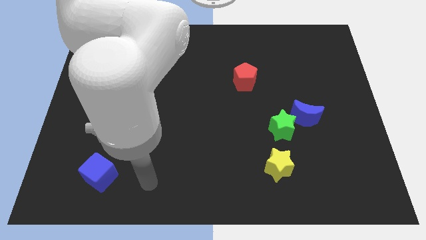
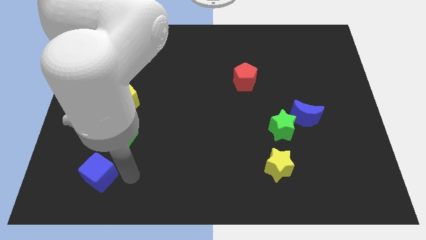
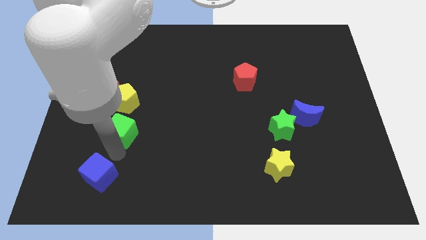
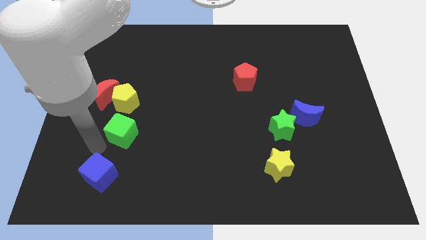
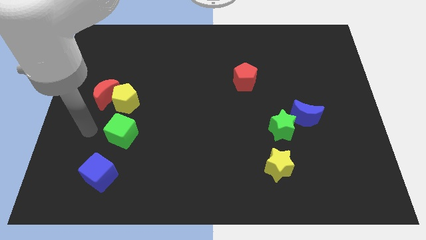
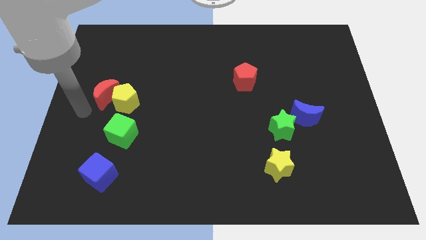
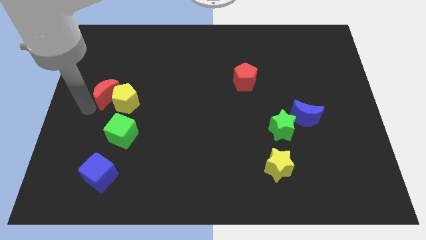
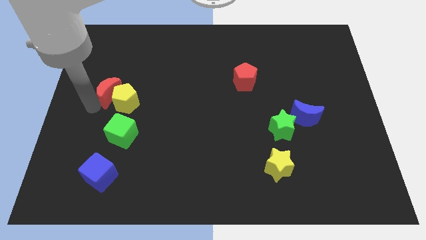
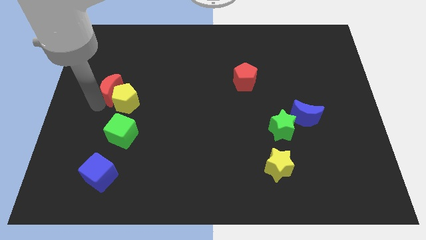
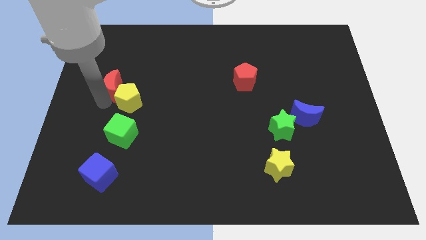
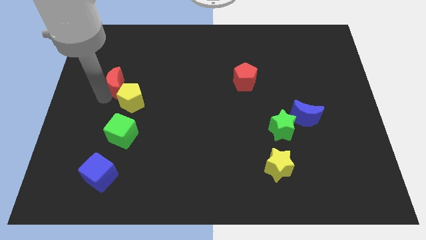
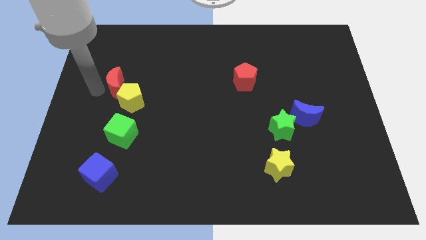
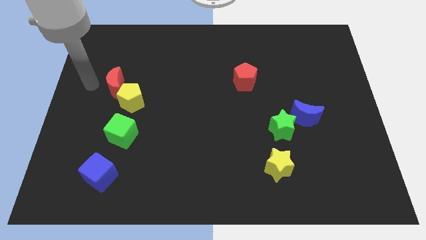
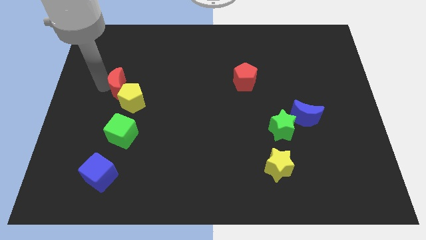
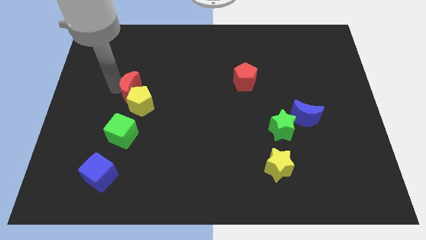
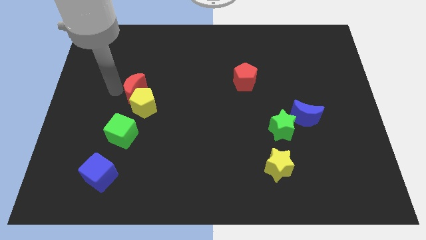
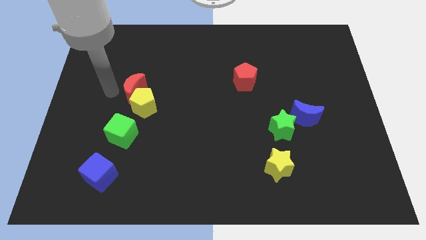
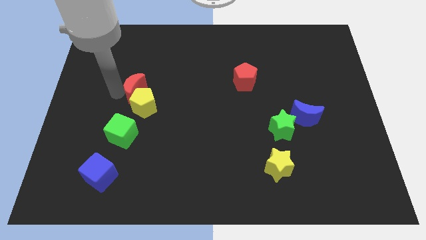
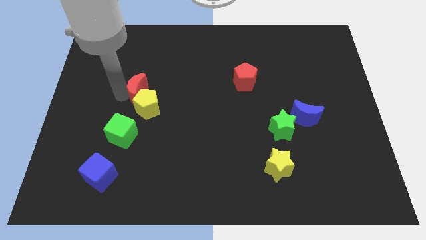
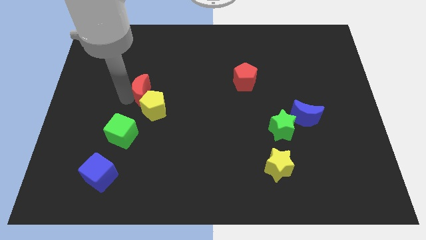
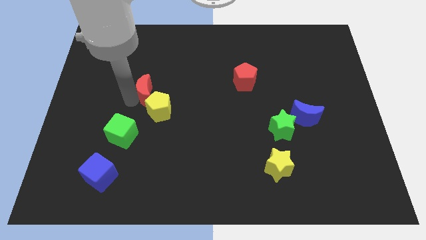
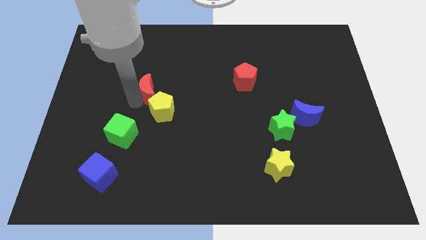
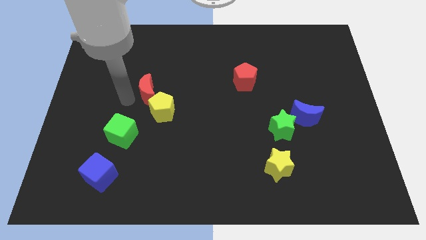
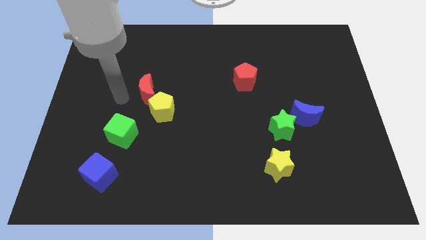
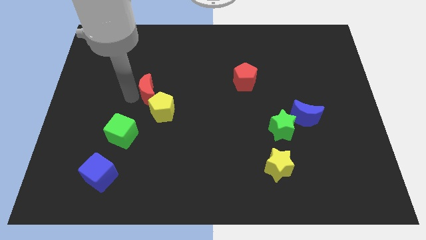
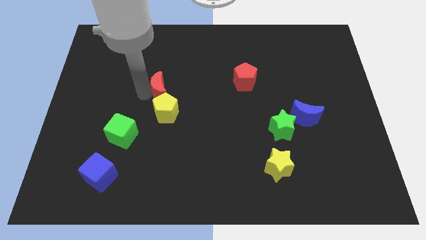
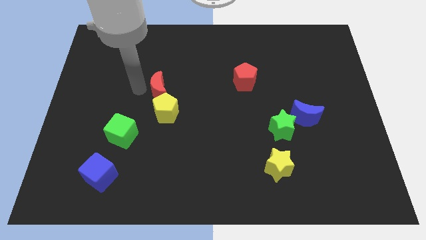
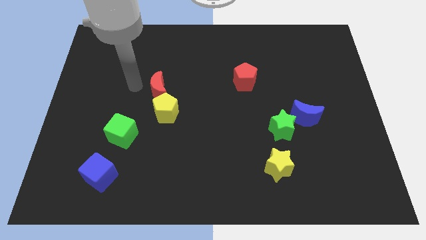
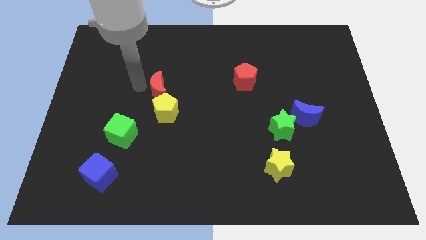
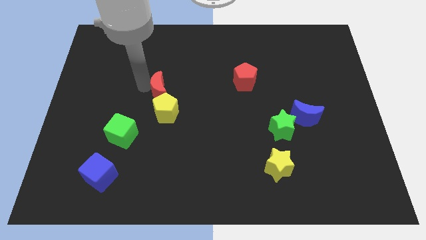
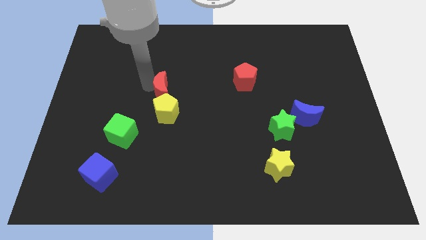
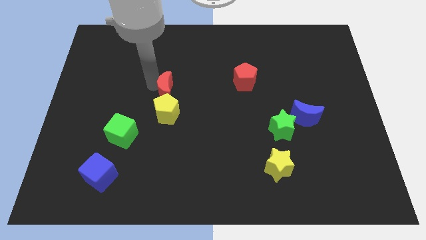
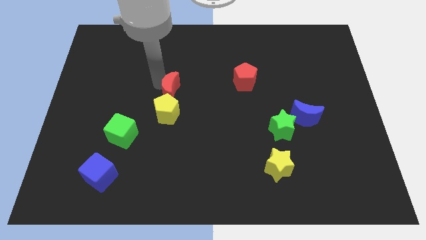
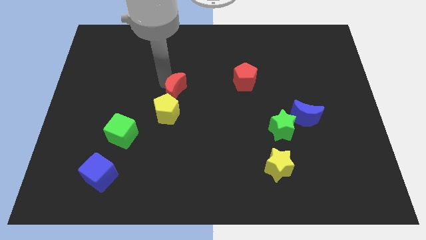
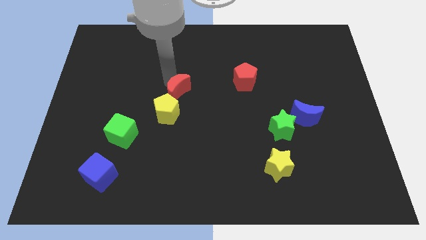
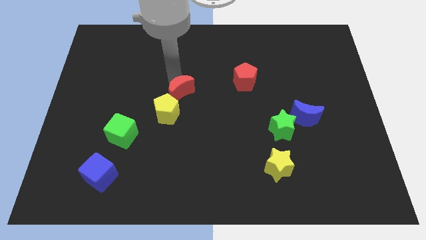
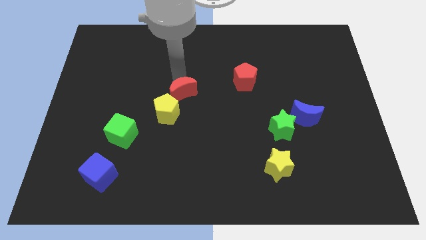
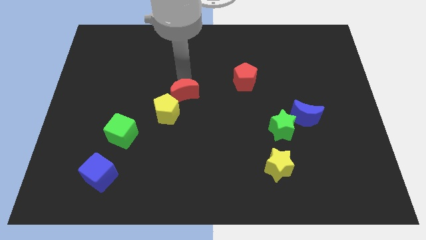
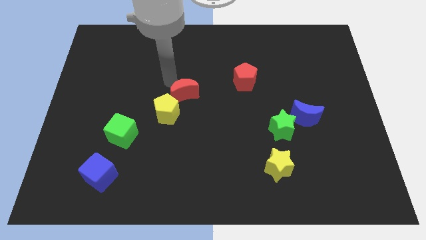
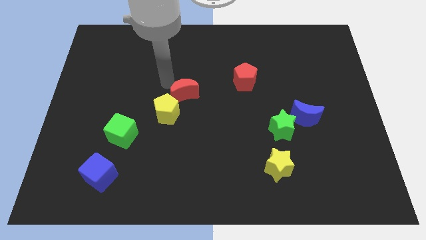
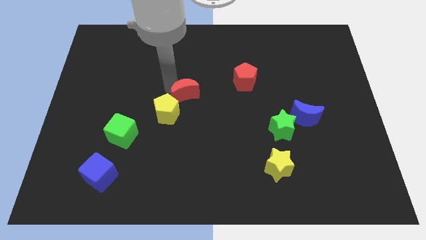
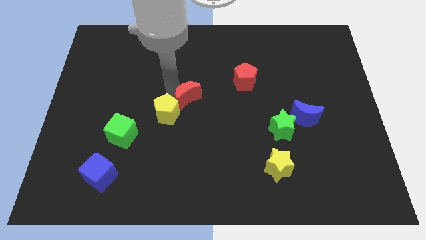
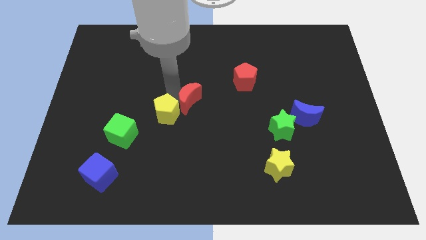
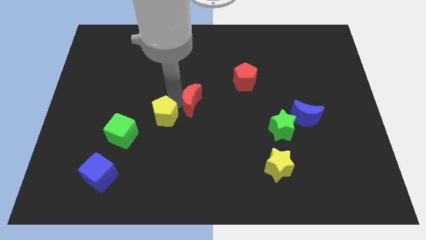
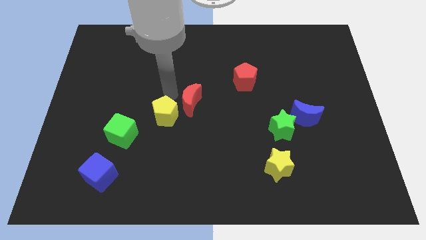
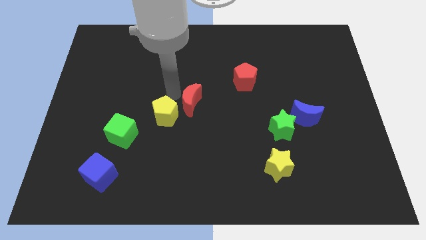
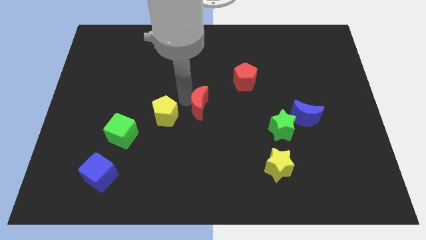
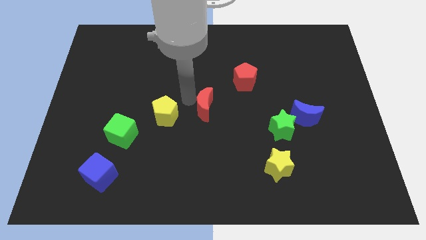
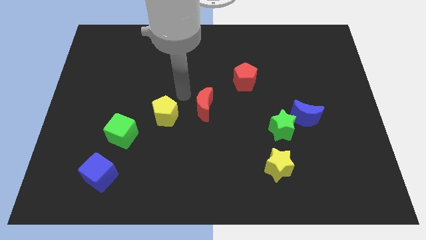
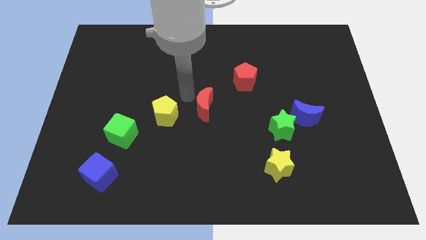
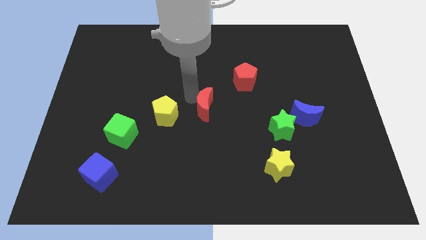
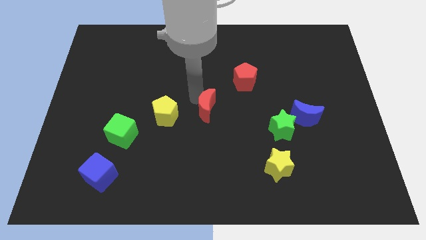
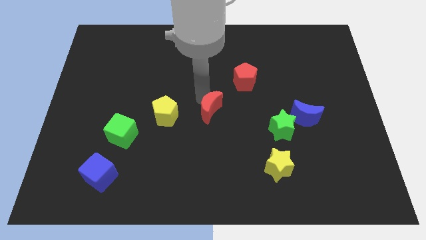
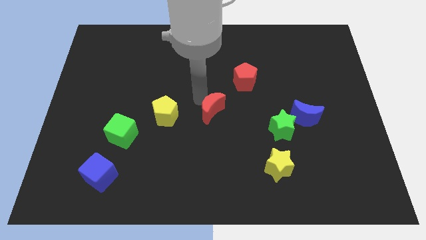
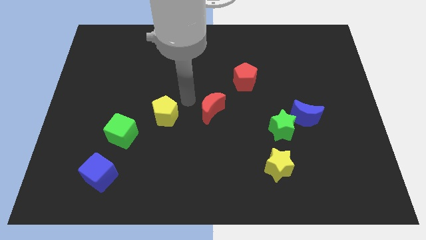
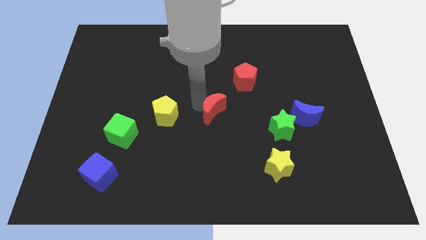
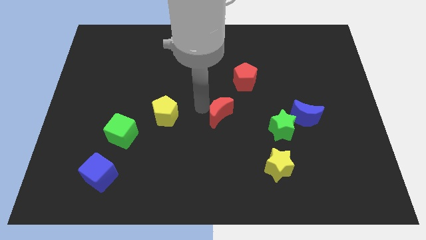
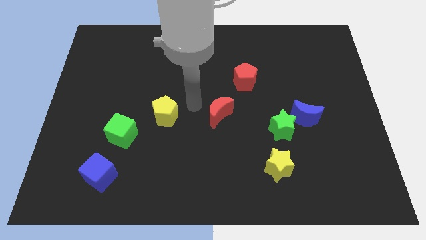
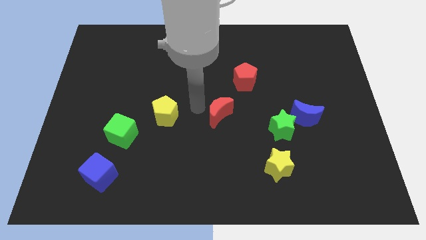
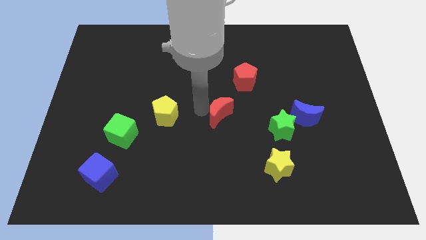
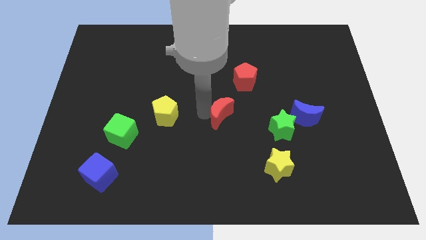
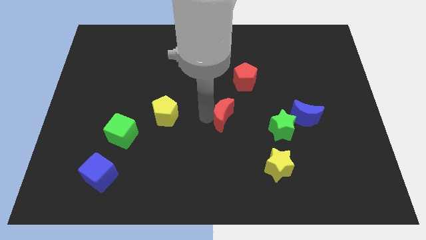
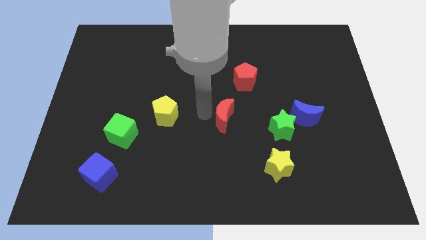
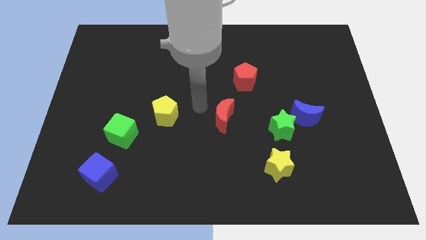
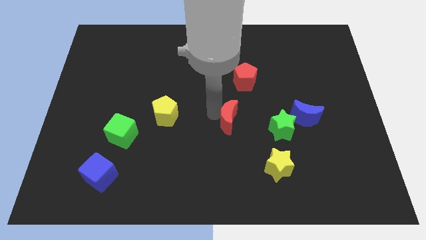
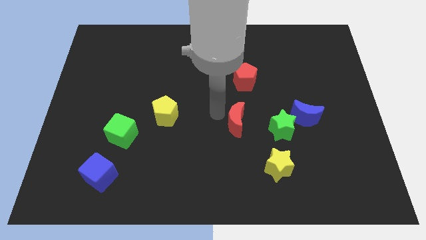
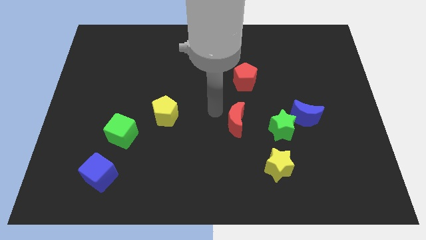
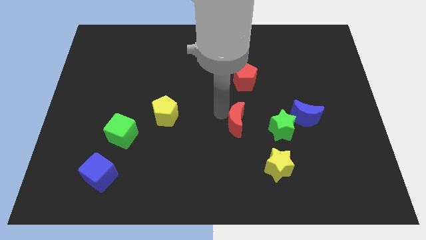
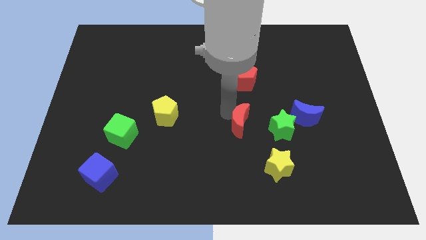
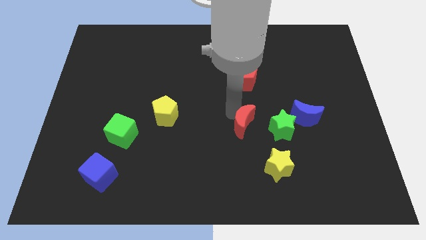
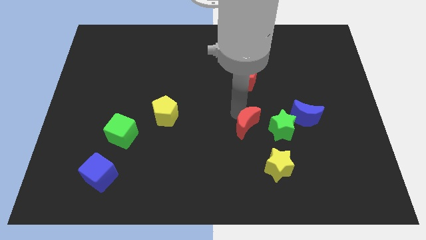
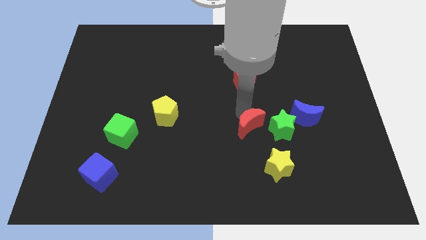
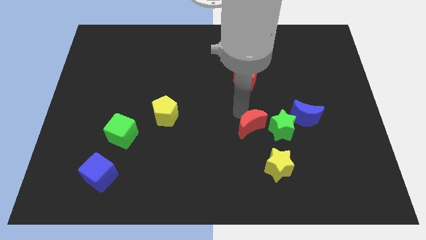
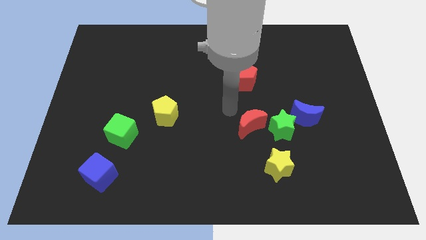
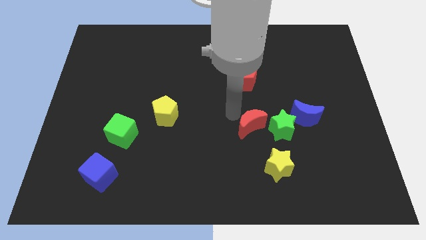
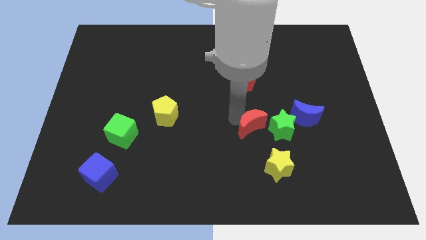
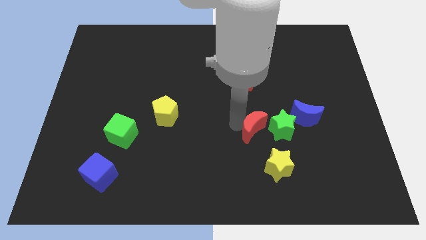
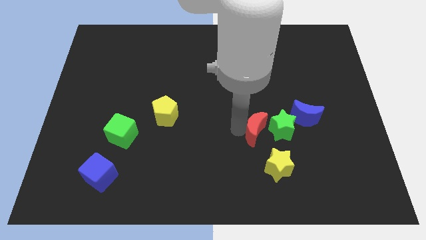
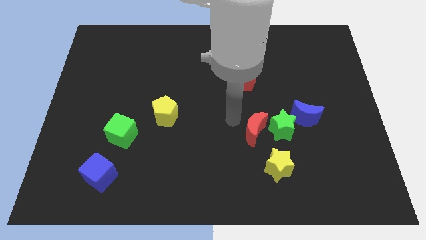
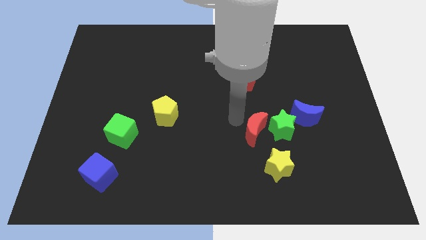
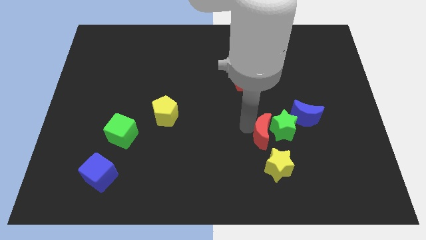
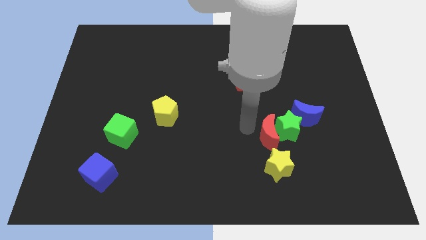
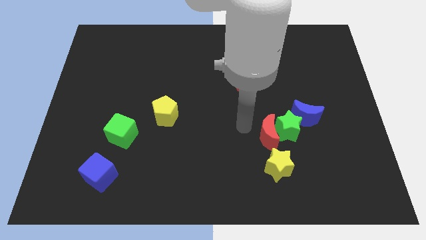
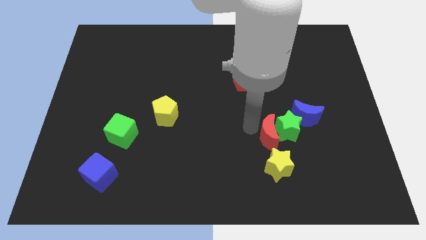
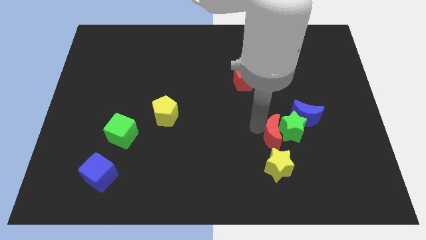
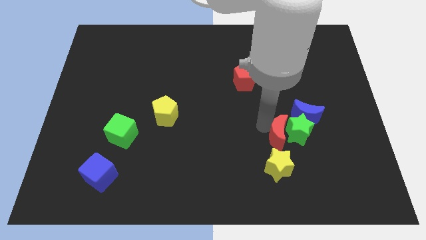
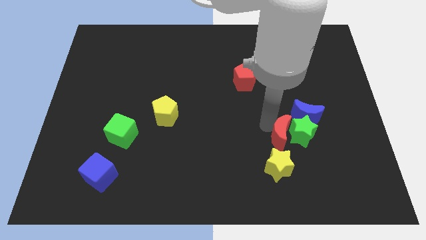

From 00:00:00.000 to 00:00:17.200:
move the red moon to the top right of the yellow star
